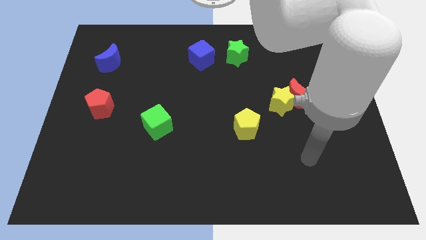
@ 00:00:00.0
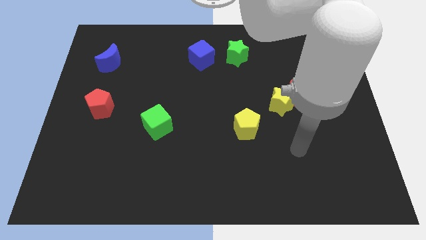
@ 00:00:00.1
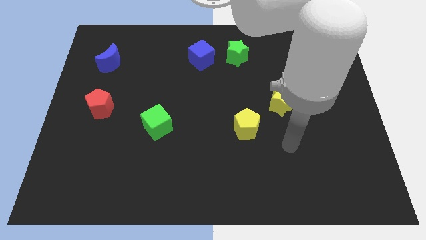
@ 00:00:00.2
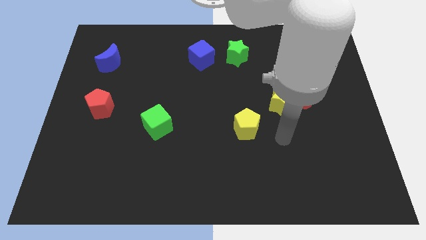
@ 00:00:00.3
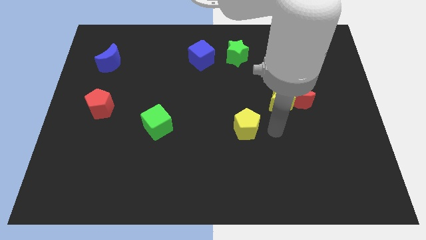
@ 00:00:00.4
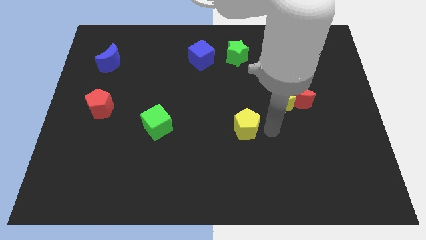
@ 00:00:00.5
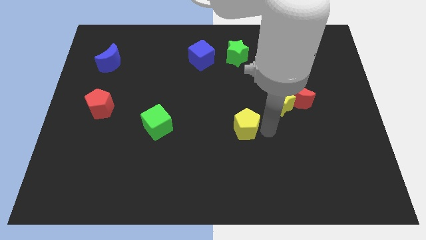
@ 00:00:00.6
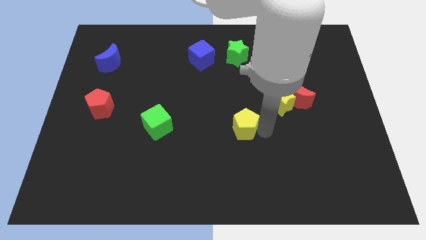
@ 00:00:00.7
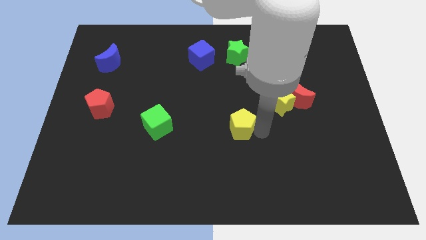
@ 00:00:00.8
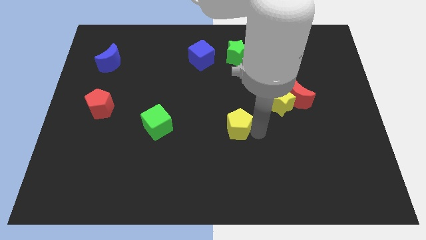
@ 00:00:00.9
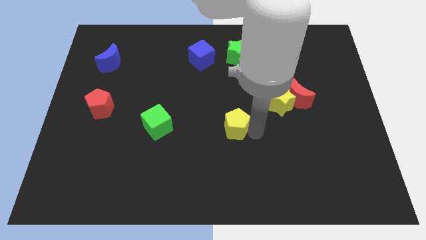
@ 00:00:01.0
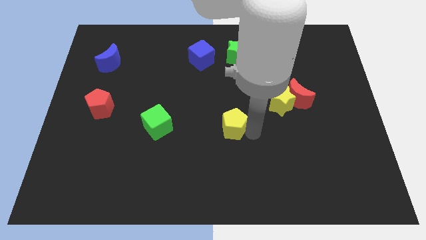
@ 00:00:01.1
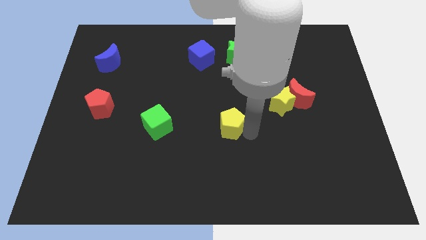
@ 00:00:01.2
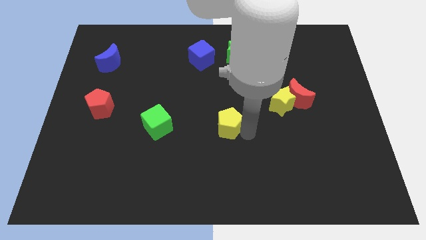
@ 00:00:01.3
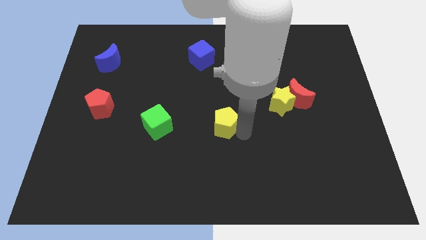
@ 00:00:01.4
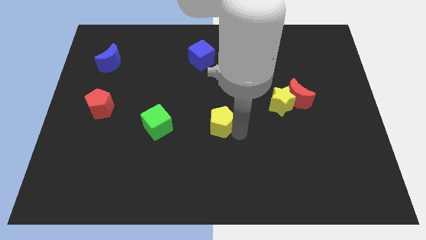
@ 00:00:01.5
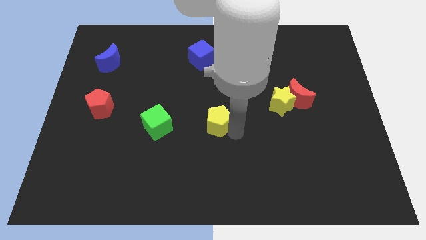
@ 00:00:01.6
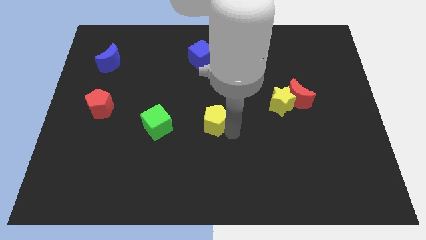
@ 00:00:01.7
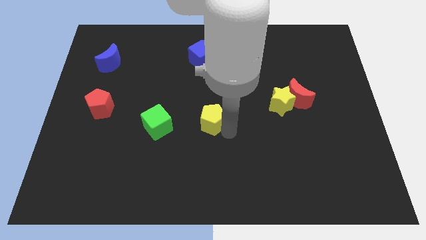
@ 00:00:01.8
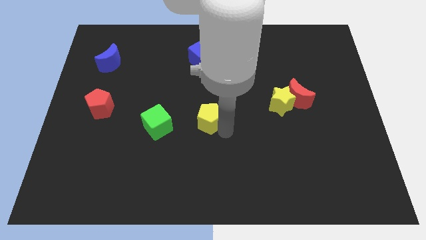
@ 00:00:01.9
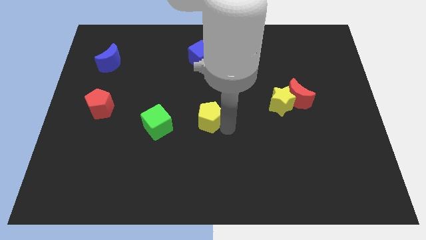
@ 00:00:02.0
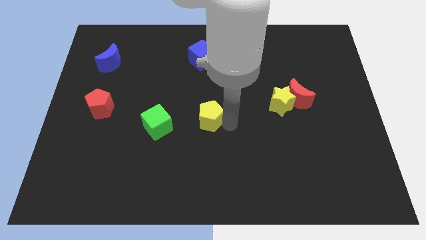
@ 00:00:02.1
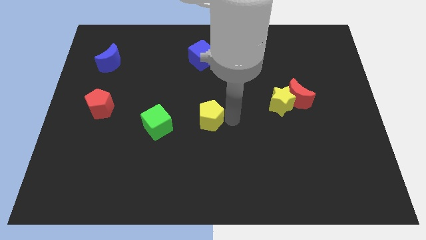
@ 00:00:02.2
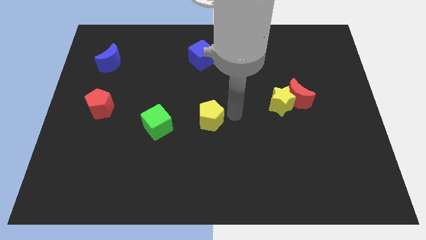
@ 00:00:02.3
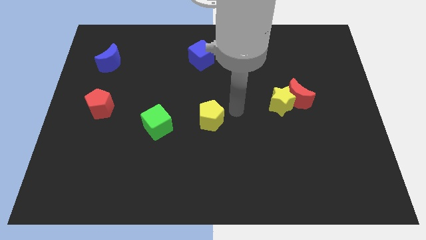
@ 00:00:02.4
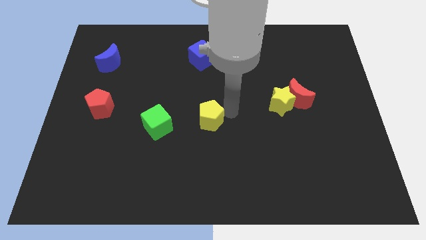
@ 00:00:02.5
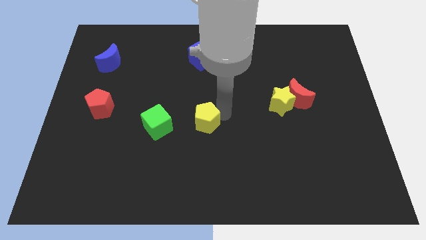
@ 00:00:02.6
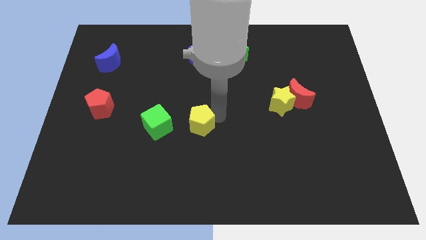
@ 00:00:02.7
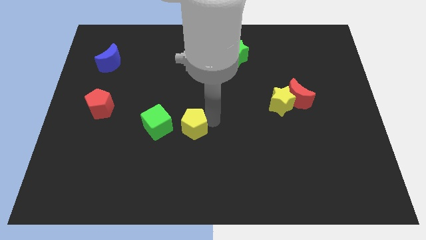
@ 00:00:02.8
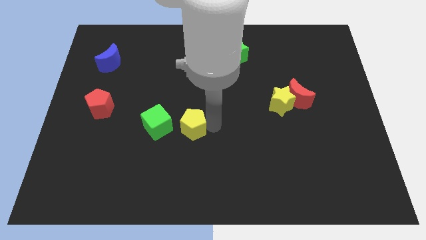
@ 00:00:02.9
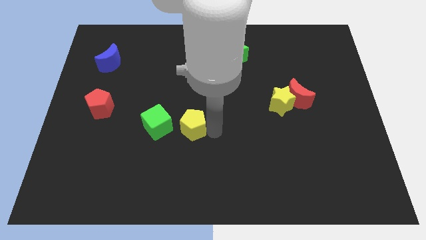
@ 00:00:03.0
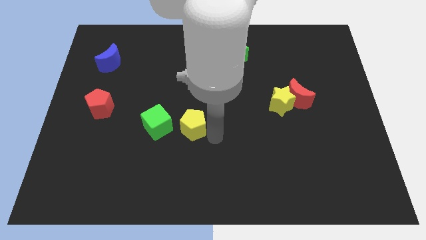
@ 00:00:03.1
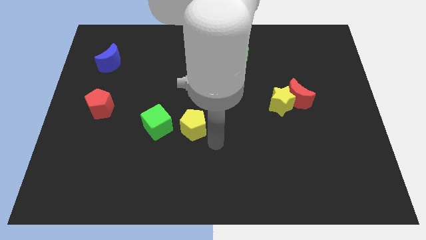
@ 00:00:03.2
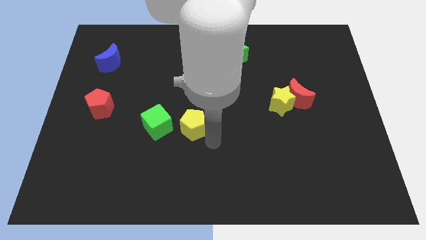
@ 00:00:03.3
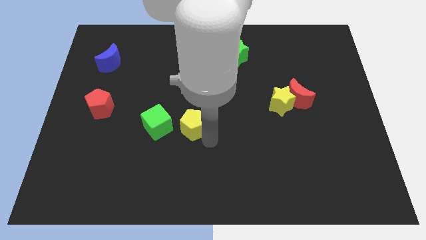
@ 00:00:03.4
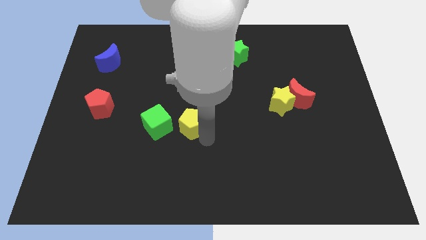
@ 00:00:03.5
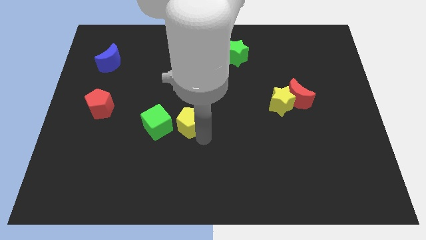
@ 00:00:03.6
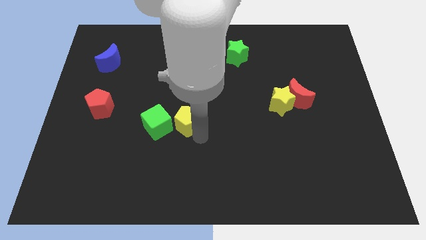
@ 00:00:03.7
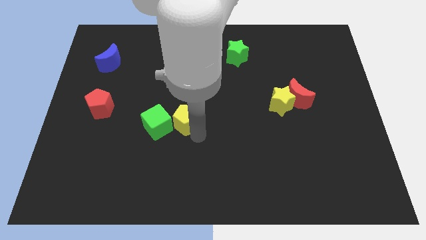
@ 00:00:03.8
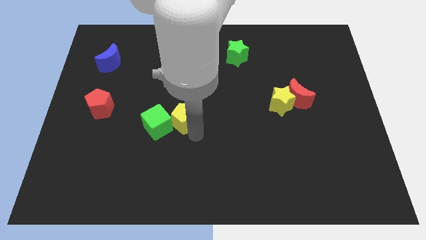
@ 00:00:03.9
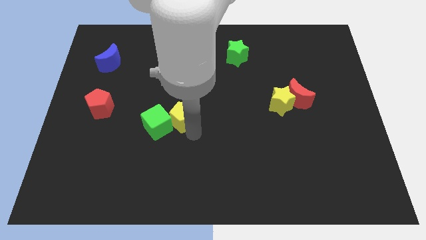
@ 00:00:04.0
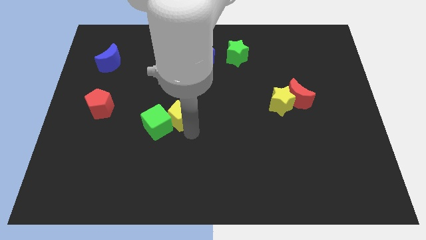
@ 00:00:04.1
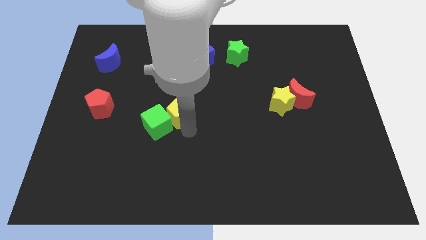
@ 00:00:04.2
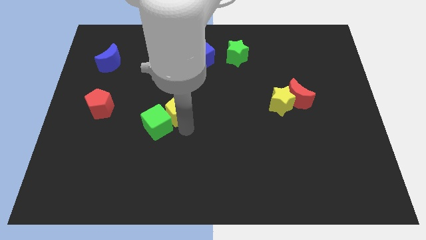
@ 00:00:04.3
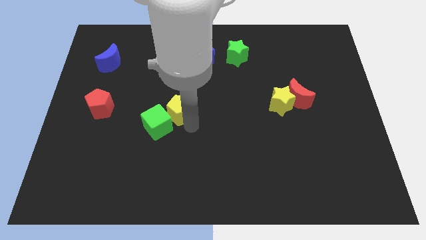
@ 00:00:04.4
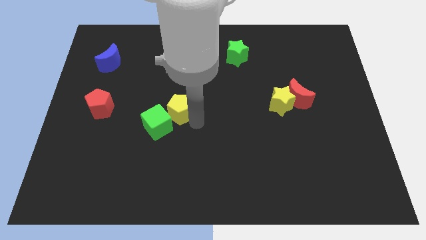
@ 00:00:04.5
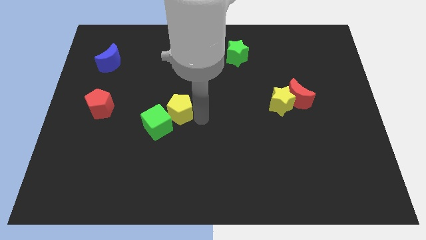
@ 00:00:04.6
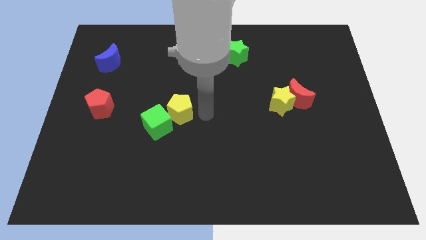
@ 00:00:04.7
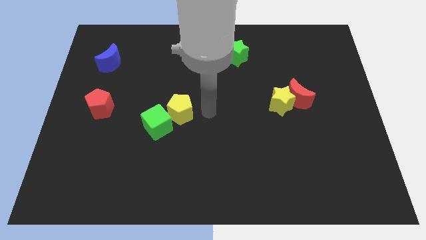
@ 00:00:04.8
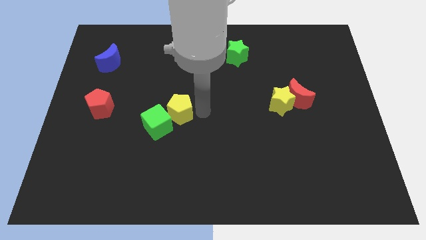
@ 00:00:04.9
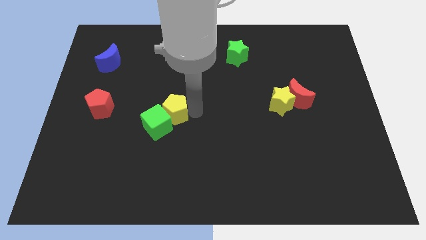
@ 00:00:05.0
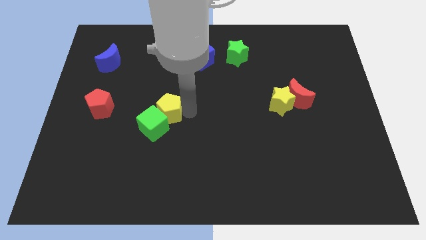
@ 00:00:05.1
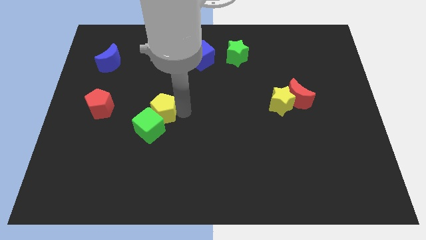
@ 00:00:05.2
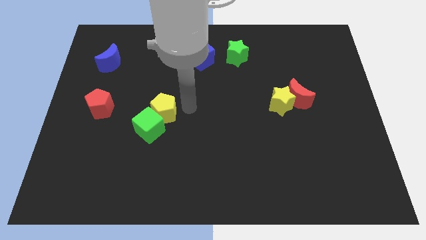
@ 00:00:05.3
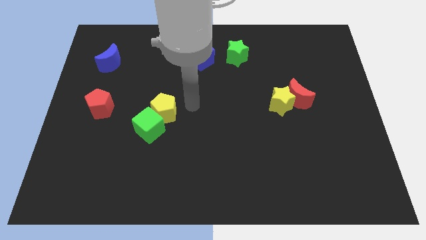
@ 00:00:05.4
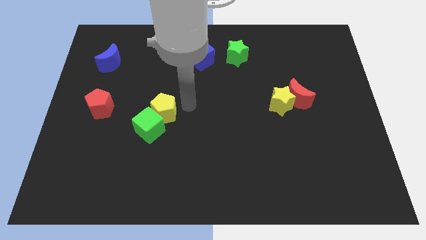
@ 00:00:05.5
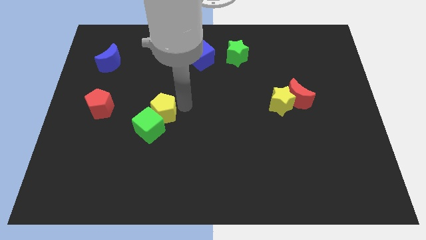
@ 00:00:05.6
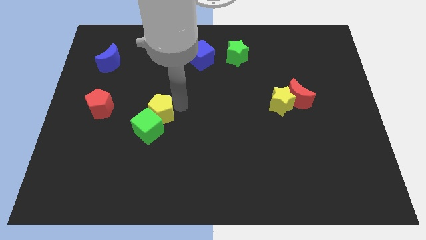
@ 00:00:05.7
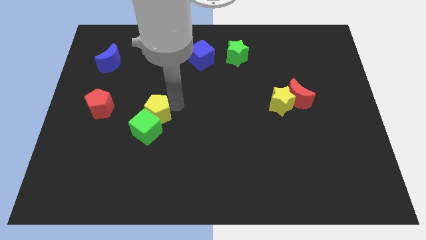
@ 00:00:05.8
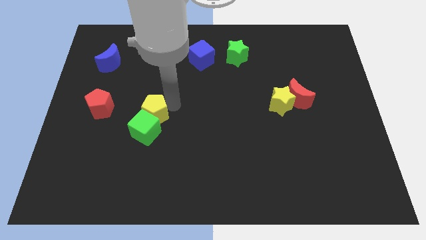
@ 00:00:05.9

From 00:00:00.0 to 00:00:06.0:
push the yellow pentagon to the left

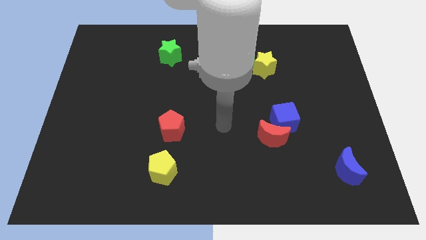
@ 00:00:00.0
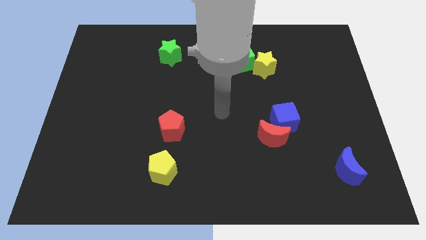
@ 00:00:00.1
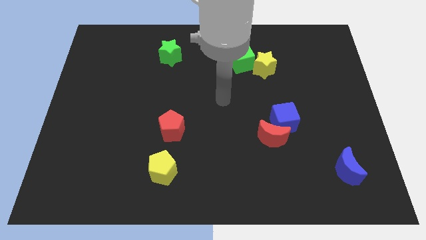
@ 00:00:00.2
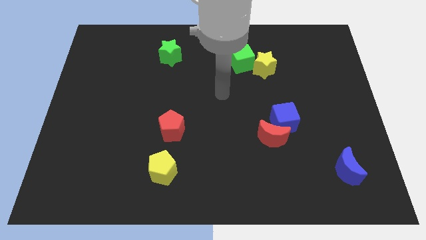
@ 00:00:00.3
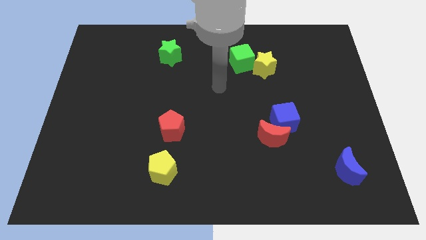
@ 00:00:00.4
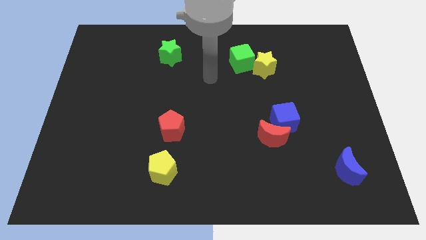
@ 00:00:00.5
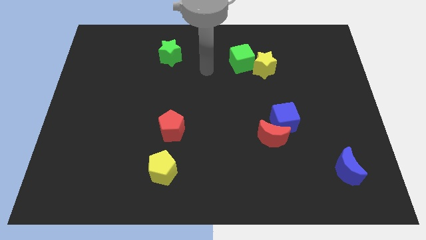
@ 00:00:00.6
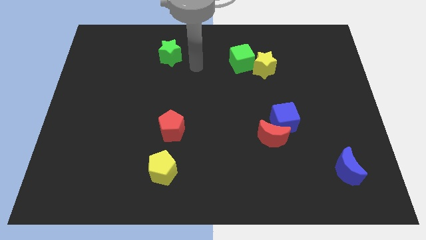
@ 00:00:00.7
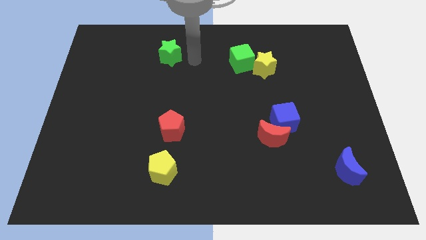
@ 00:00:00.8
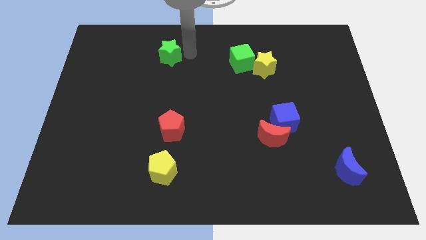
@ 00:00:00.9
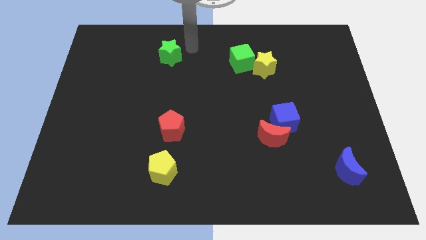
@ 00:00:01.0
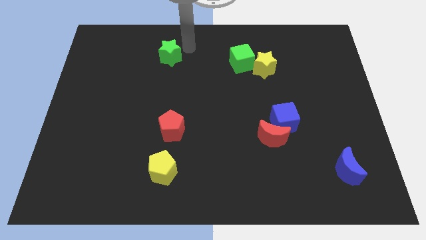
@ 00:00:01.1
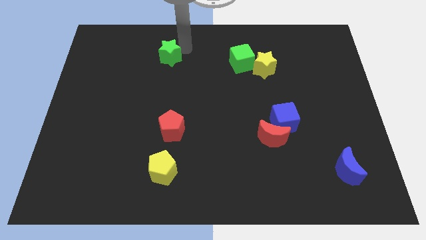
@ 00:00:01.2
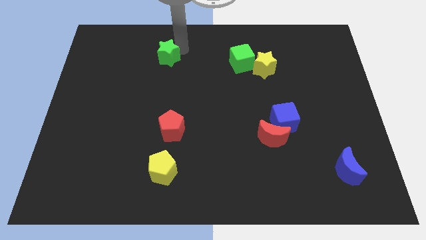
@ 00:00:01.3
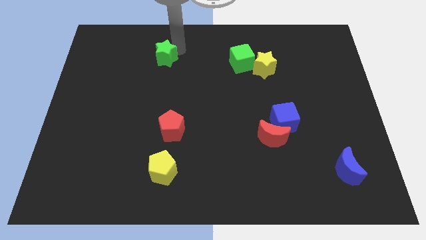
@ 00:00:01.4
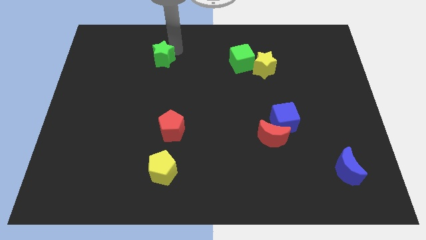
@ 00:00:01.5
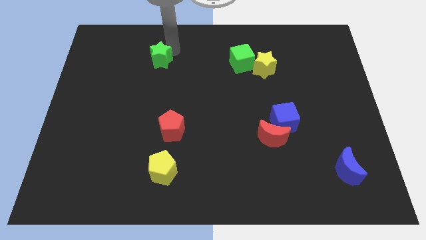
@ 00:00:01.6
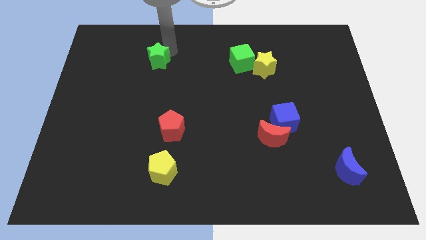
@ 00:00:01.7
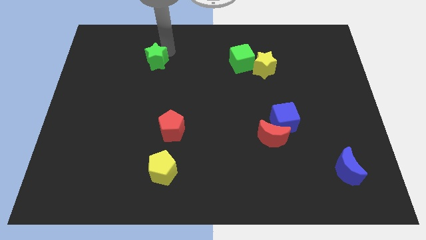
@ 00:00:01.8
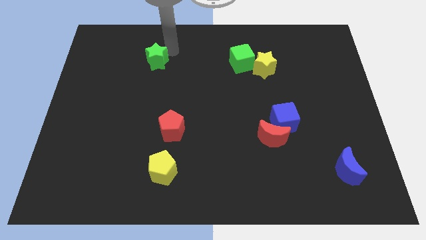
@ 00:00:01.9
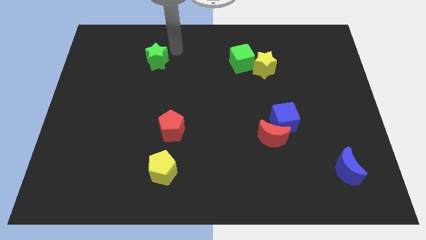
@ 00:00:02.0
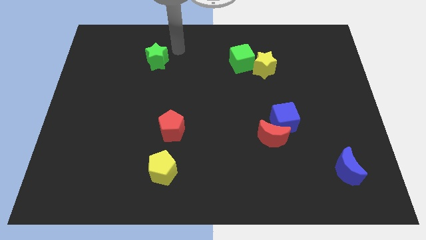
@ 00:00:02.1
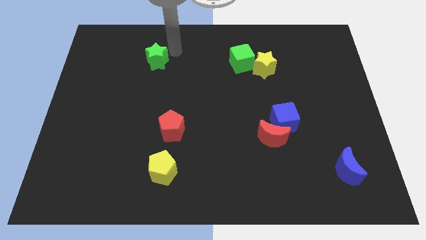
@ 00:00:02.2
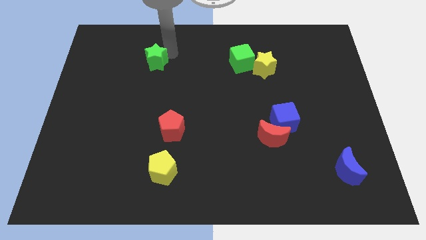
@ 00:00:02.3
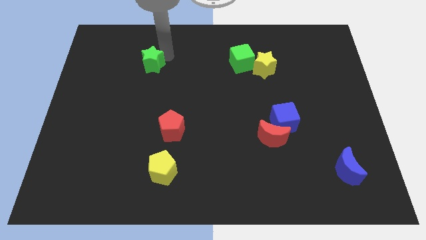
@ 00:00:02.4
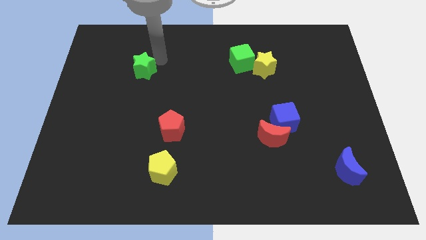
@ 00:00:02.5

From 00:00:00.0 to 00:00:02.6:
push the green star diagonally downwards and left somewhat
